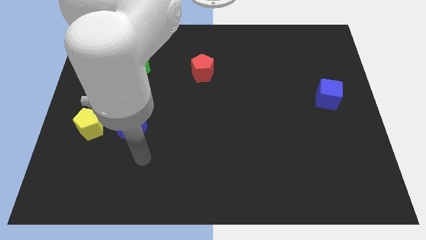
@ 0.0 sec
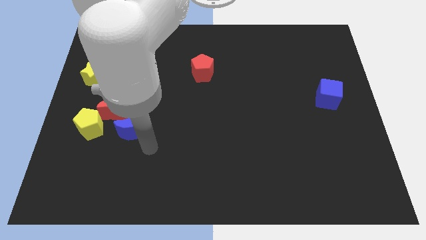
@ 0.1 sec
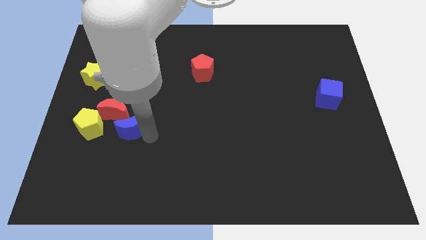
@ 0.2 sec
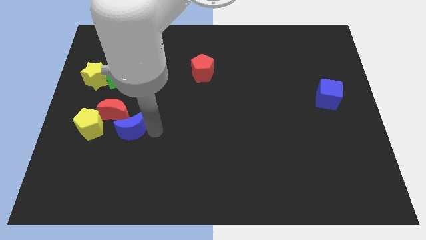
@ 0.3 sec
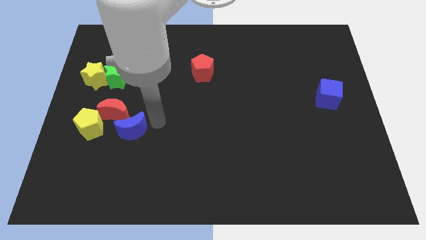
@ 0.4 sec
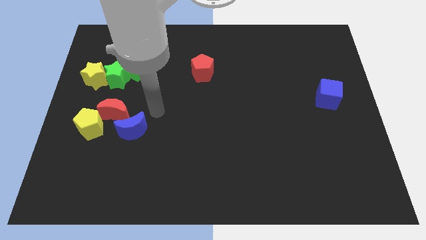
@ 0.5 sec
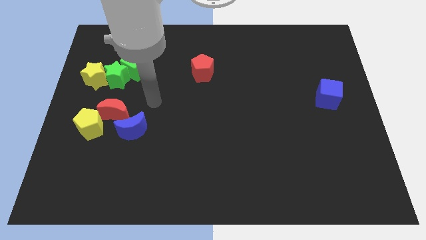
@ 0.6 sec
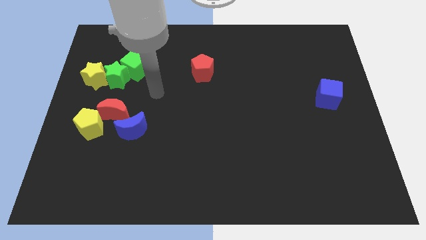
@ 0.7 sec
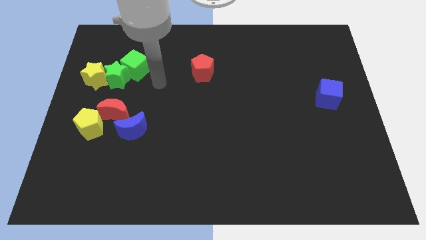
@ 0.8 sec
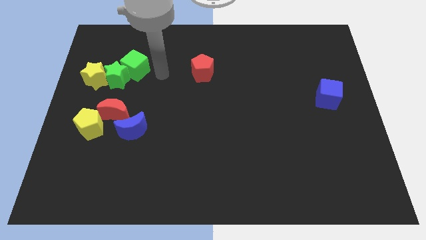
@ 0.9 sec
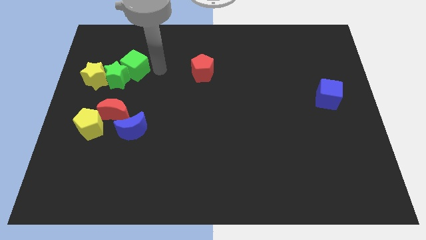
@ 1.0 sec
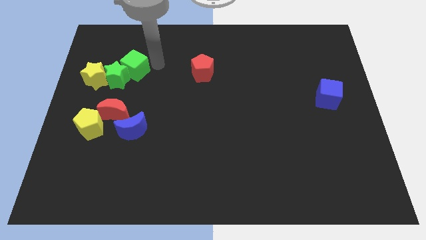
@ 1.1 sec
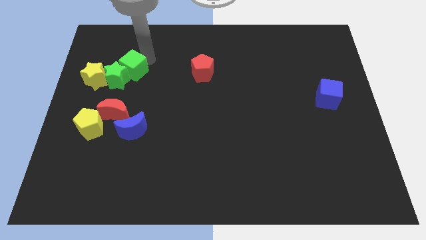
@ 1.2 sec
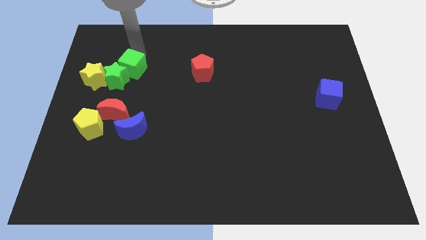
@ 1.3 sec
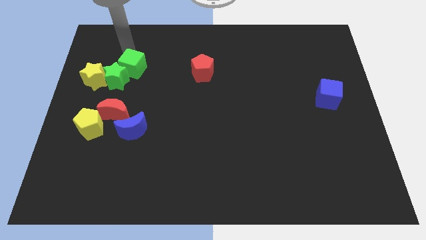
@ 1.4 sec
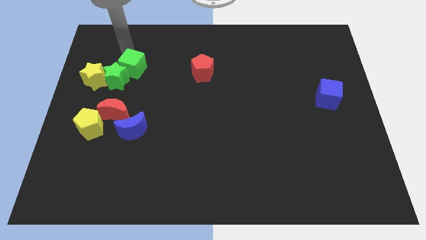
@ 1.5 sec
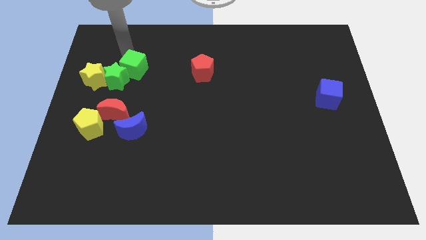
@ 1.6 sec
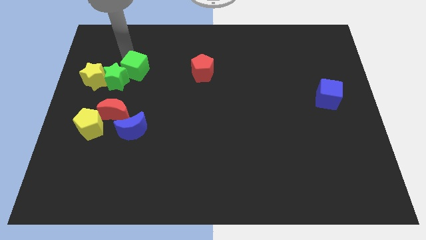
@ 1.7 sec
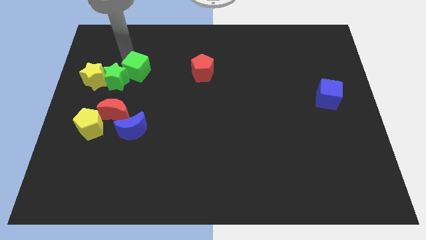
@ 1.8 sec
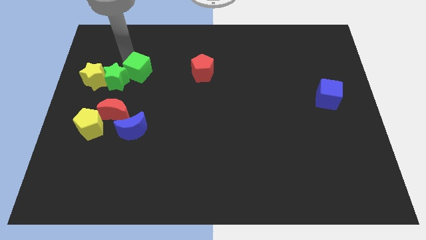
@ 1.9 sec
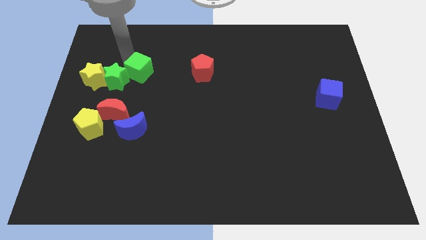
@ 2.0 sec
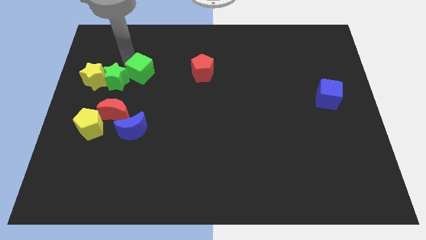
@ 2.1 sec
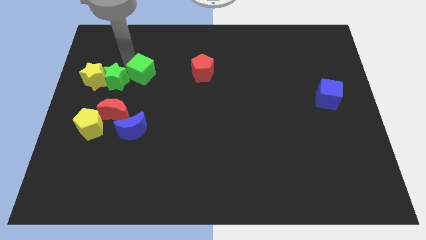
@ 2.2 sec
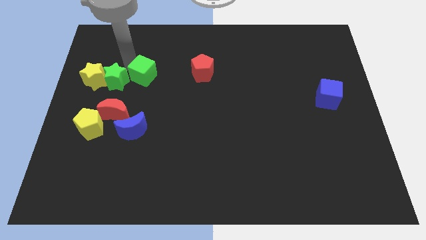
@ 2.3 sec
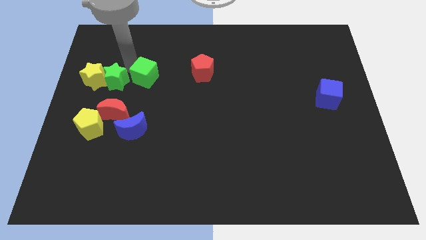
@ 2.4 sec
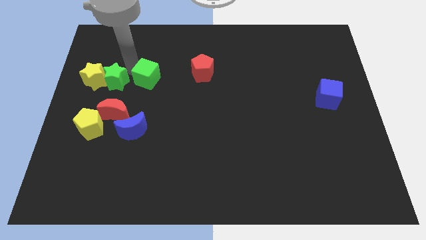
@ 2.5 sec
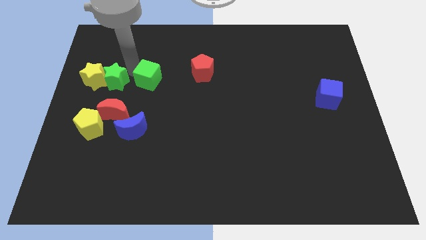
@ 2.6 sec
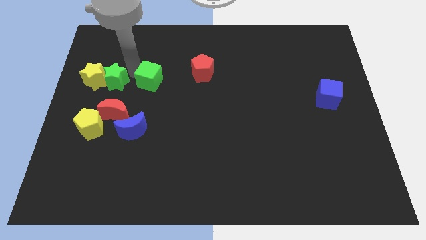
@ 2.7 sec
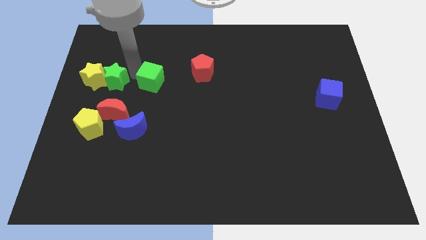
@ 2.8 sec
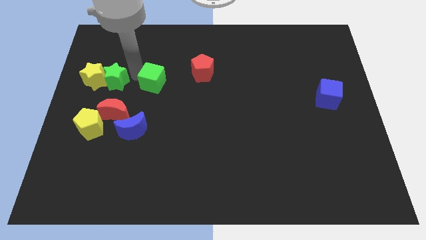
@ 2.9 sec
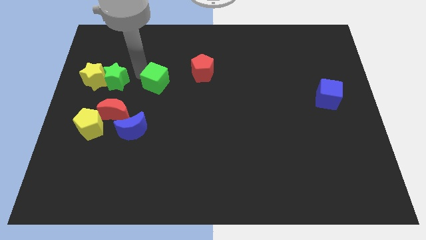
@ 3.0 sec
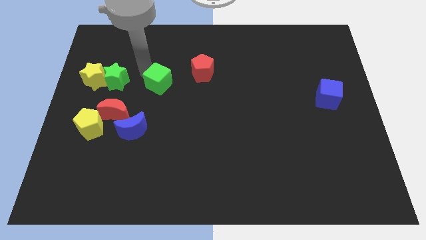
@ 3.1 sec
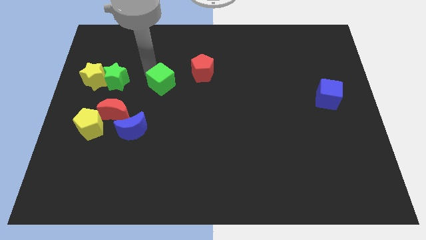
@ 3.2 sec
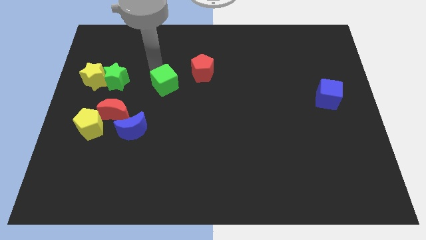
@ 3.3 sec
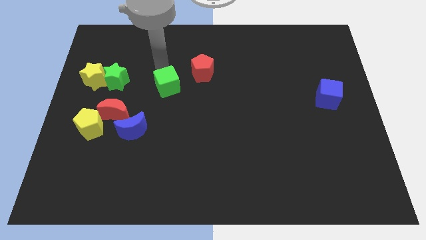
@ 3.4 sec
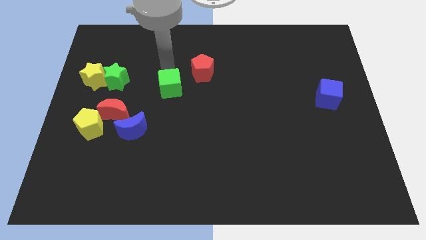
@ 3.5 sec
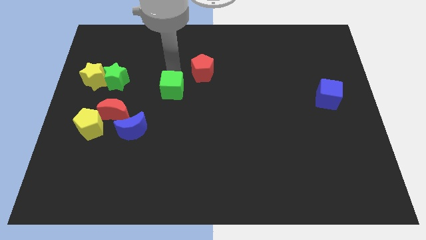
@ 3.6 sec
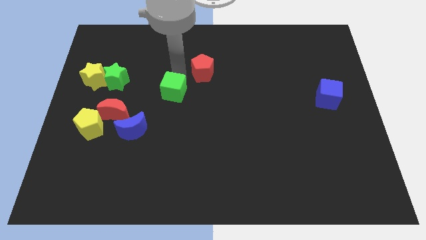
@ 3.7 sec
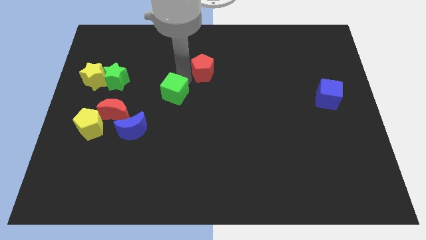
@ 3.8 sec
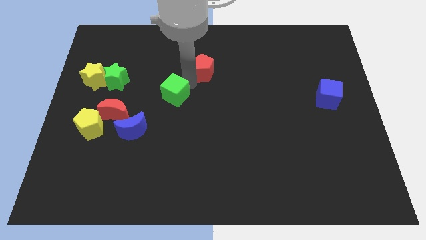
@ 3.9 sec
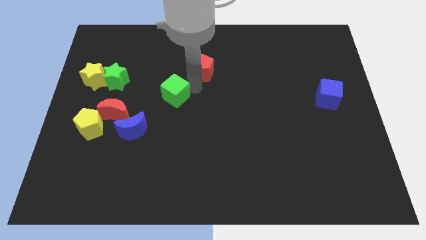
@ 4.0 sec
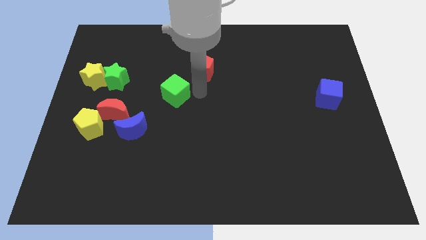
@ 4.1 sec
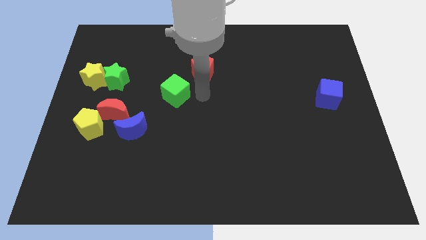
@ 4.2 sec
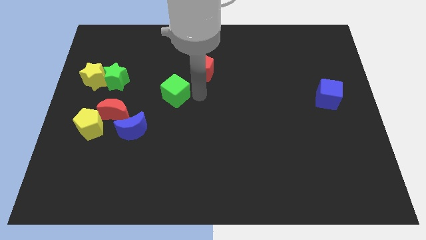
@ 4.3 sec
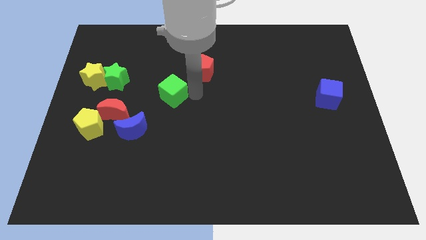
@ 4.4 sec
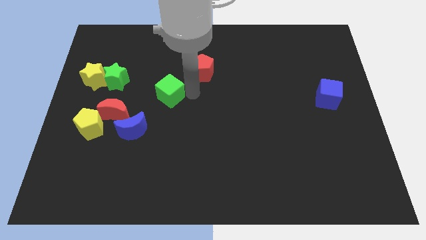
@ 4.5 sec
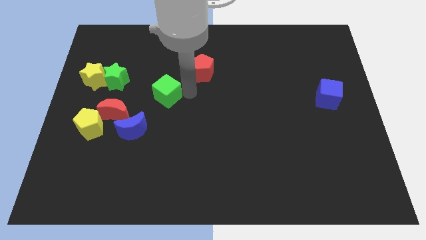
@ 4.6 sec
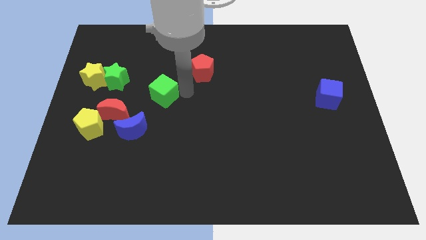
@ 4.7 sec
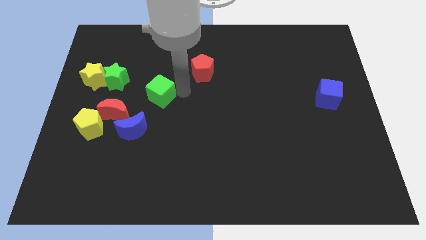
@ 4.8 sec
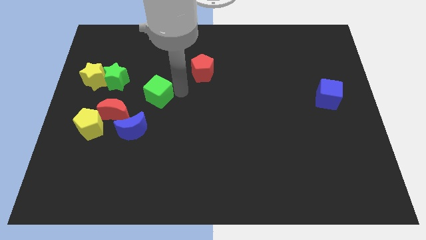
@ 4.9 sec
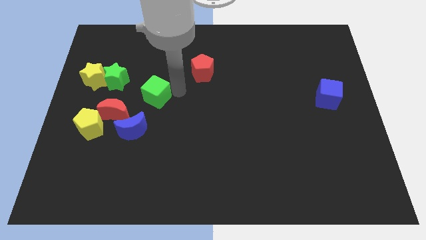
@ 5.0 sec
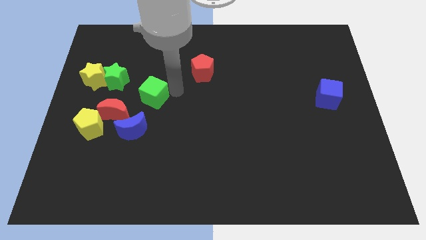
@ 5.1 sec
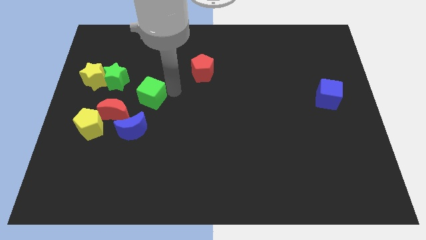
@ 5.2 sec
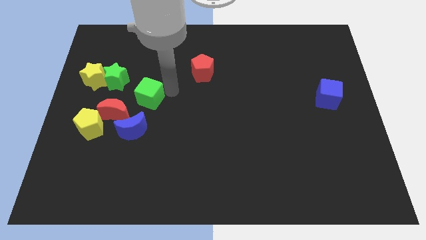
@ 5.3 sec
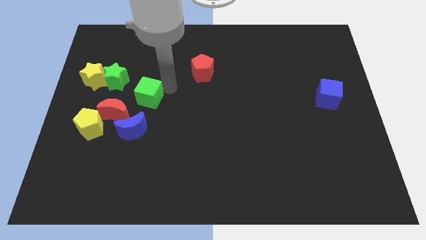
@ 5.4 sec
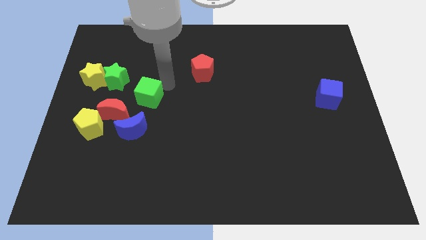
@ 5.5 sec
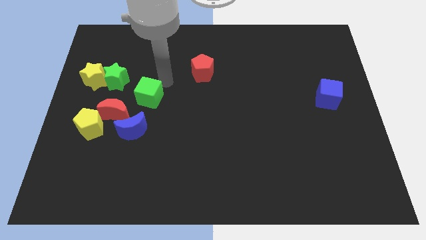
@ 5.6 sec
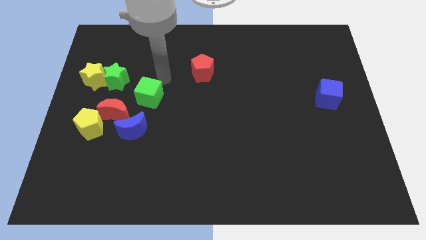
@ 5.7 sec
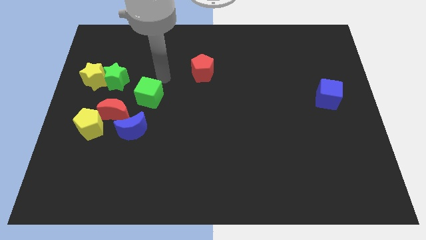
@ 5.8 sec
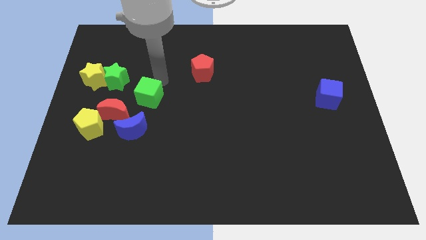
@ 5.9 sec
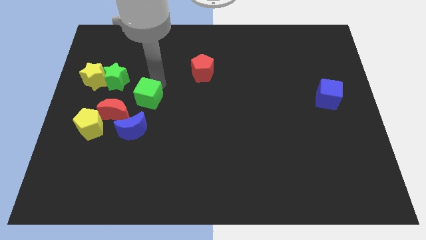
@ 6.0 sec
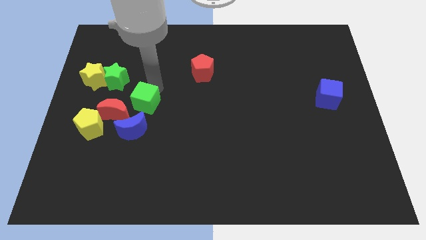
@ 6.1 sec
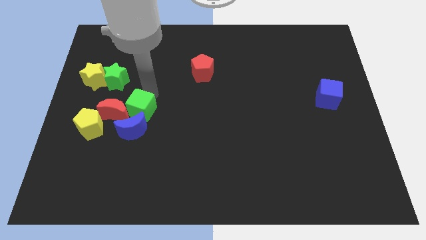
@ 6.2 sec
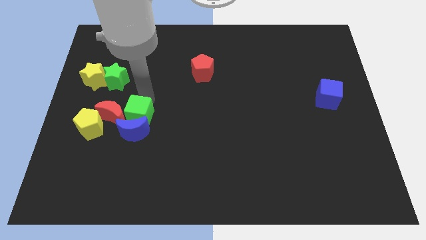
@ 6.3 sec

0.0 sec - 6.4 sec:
slide the green cube towards the blue moon
